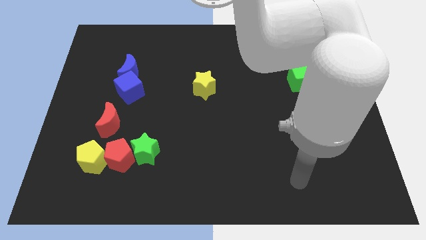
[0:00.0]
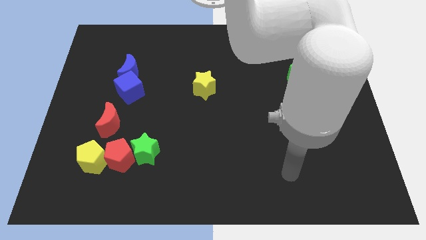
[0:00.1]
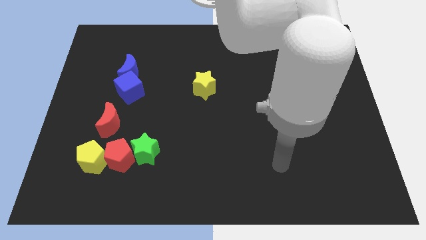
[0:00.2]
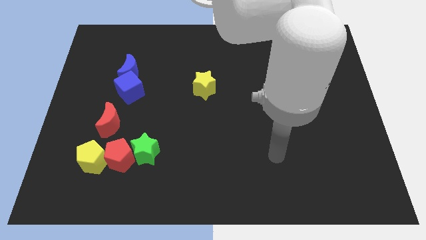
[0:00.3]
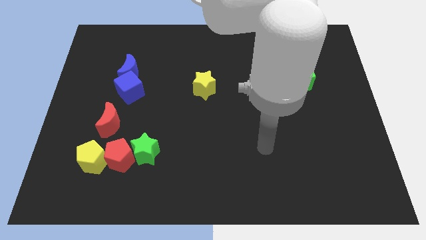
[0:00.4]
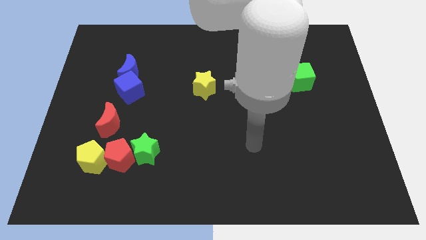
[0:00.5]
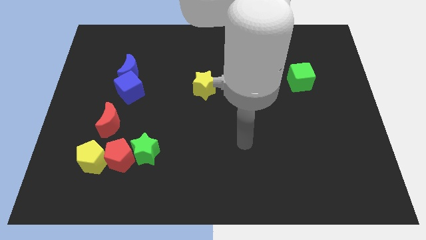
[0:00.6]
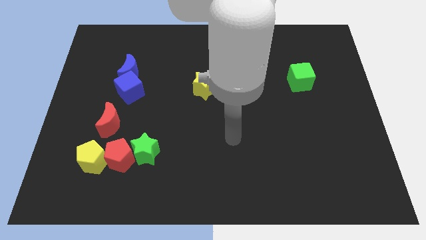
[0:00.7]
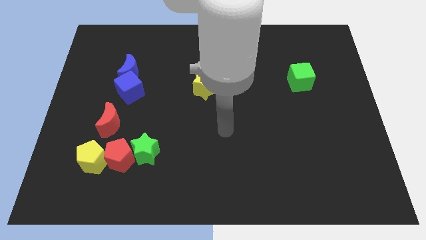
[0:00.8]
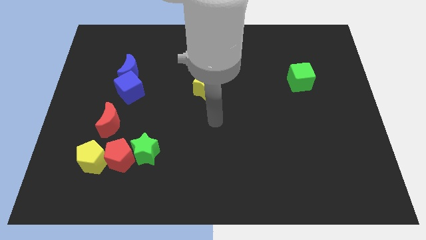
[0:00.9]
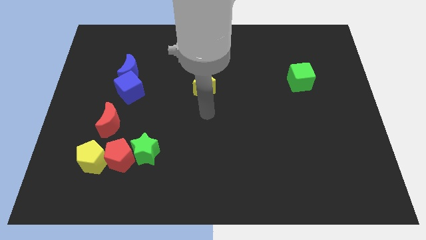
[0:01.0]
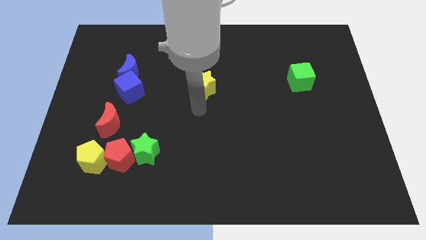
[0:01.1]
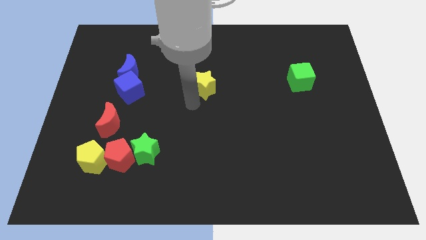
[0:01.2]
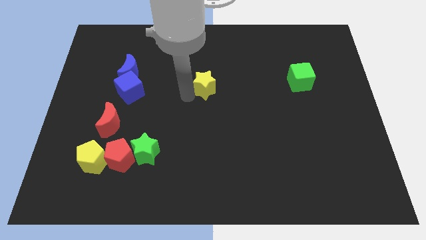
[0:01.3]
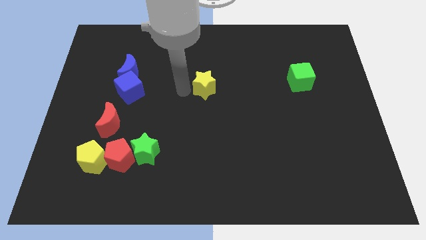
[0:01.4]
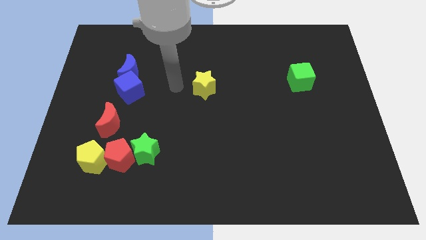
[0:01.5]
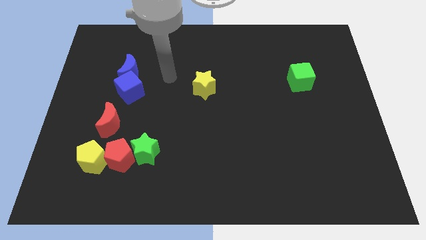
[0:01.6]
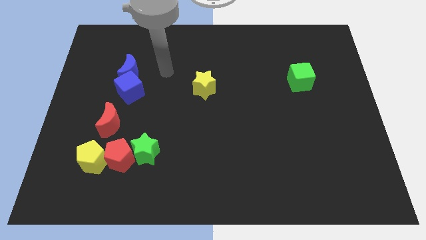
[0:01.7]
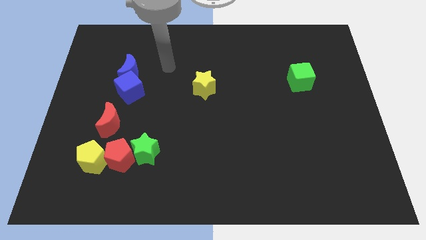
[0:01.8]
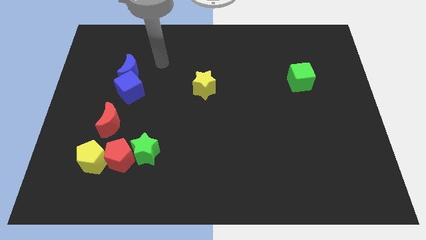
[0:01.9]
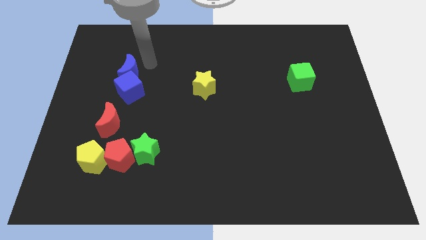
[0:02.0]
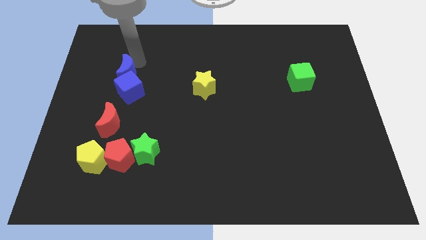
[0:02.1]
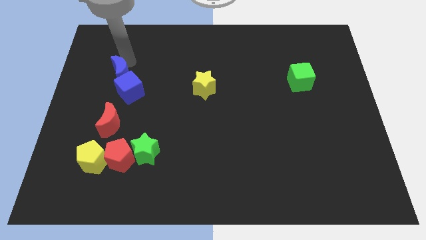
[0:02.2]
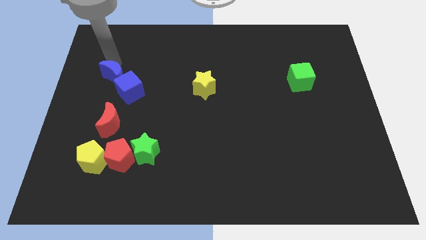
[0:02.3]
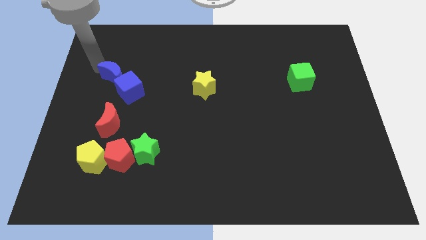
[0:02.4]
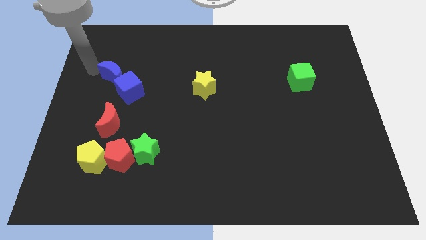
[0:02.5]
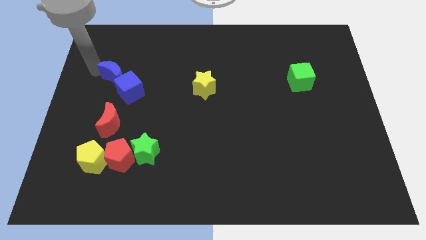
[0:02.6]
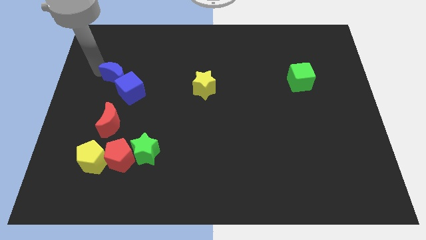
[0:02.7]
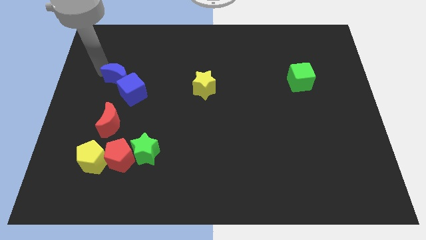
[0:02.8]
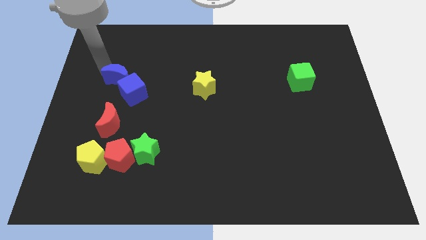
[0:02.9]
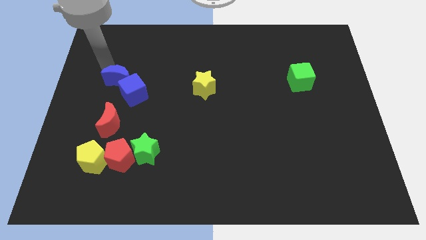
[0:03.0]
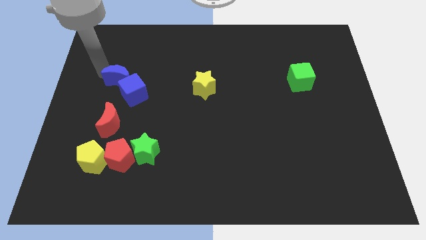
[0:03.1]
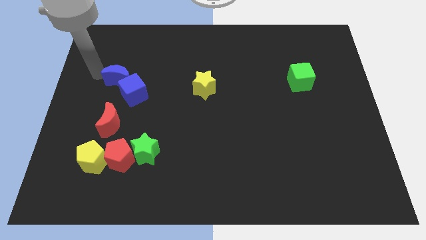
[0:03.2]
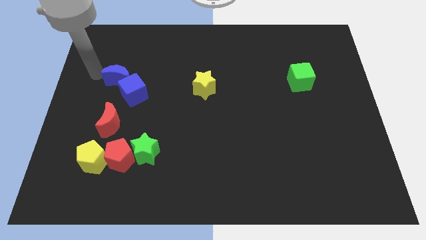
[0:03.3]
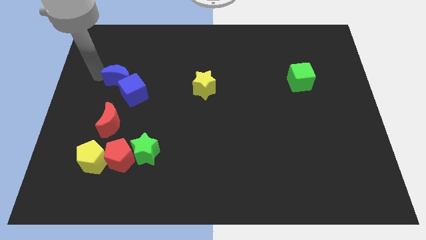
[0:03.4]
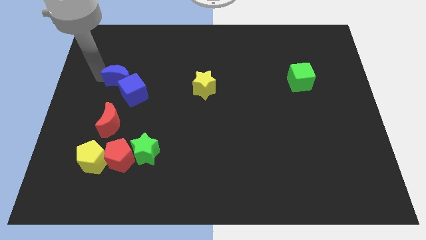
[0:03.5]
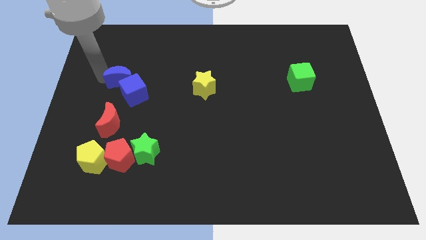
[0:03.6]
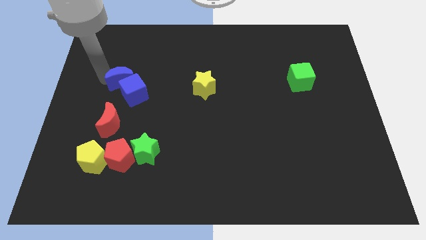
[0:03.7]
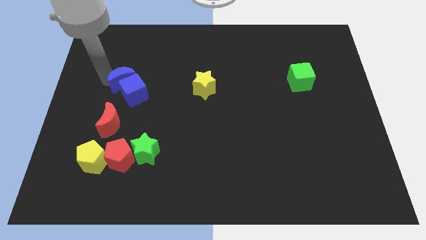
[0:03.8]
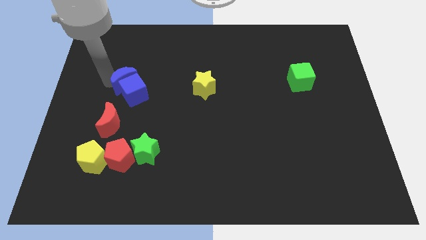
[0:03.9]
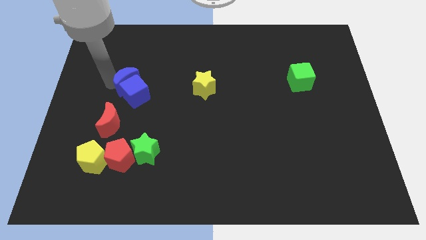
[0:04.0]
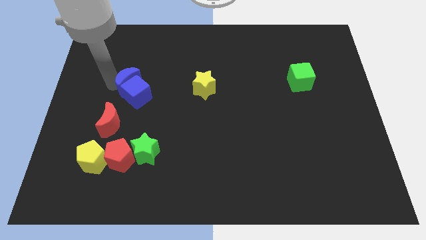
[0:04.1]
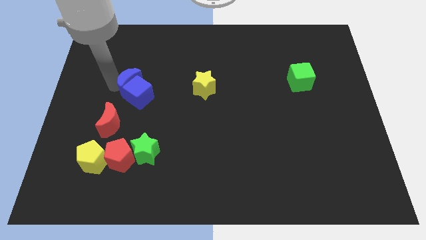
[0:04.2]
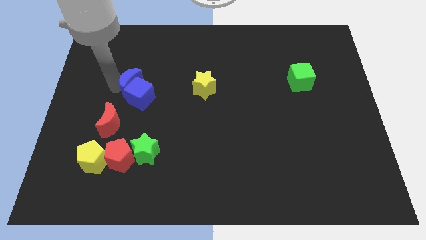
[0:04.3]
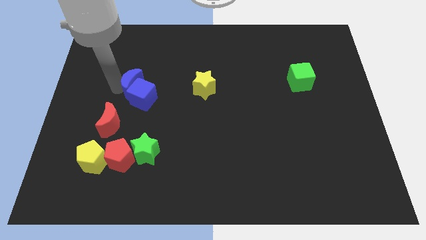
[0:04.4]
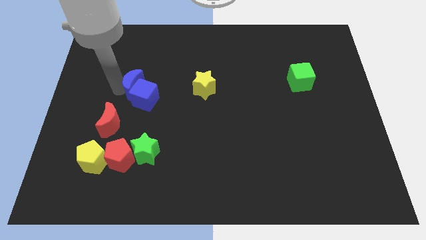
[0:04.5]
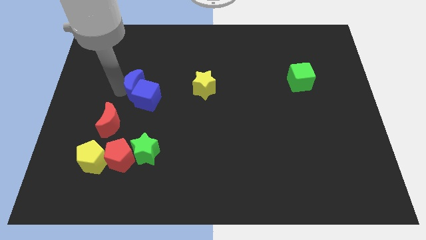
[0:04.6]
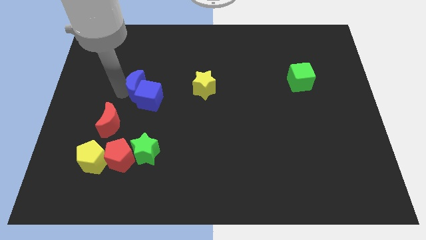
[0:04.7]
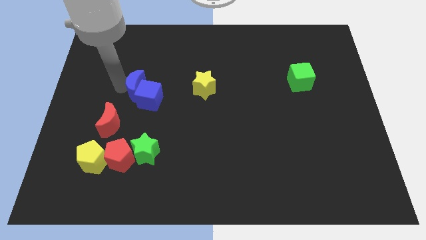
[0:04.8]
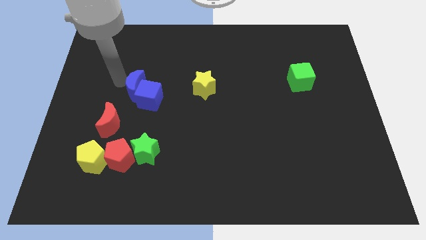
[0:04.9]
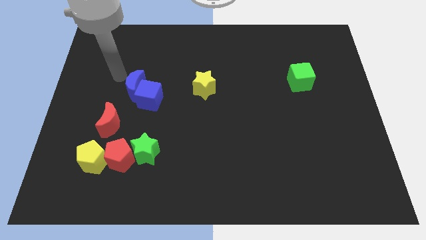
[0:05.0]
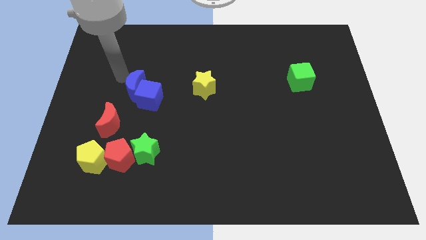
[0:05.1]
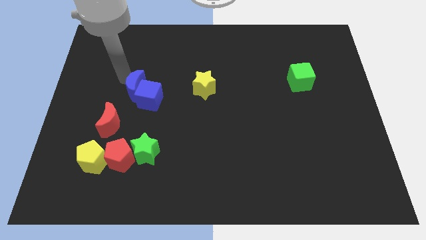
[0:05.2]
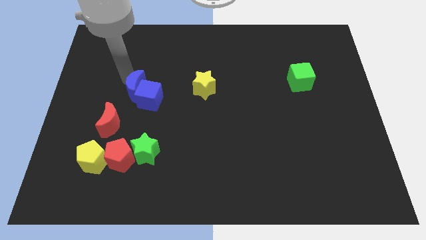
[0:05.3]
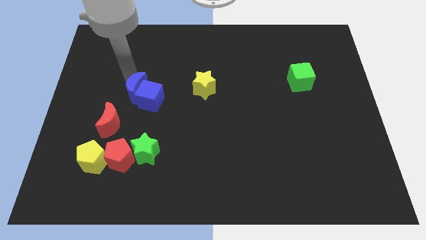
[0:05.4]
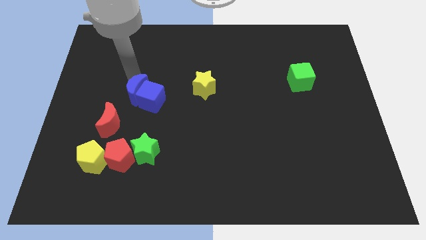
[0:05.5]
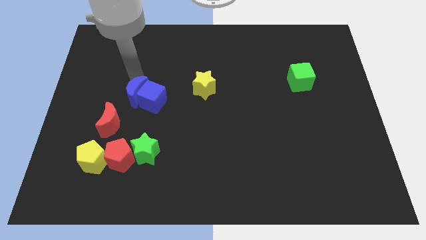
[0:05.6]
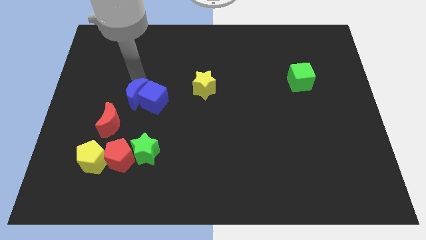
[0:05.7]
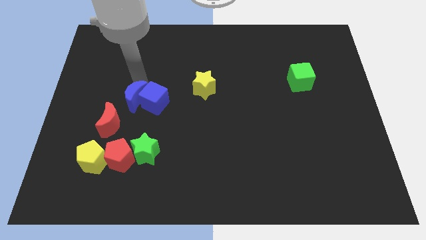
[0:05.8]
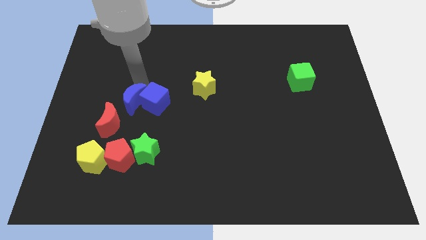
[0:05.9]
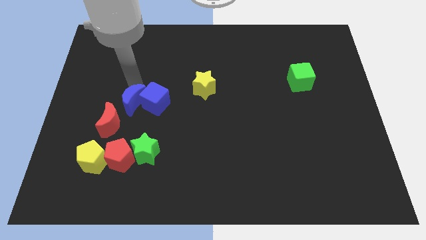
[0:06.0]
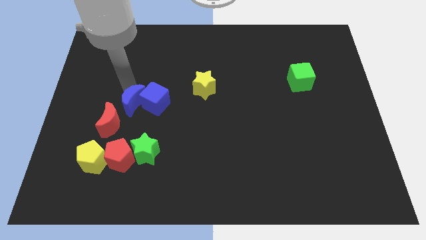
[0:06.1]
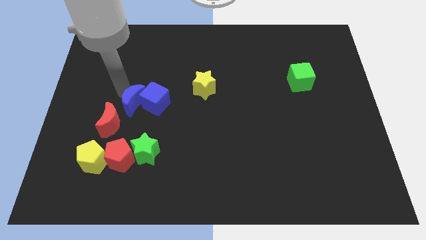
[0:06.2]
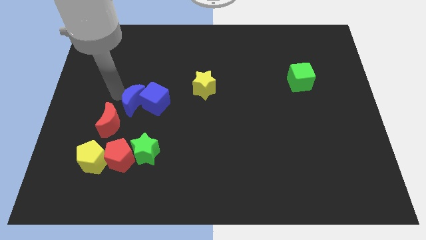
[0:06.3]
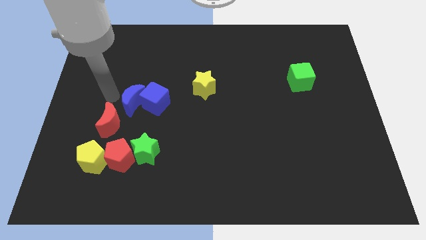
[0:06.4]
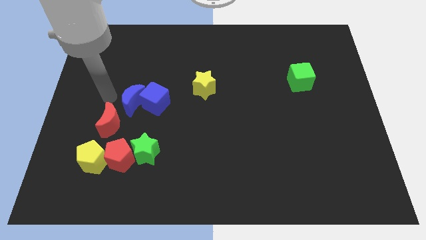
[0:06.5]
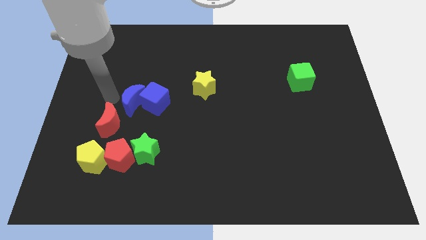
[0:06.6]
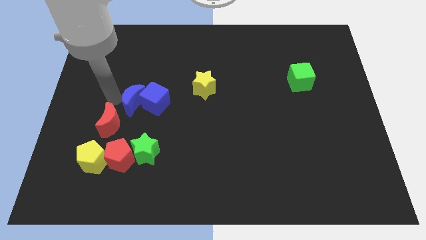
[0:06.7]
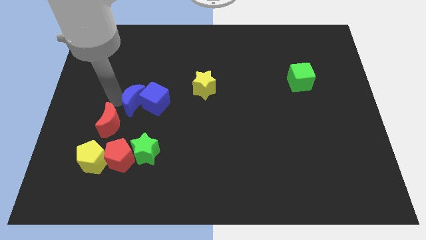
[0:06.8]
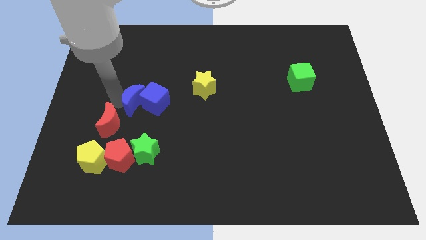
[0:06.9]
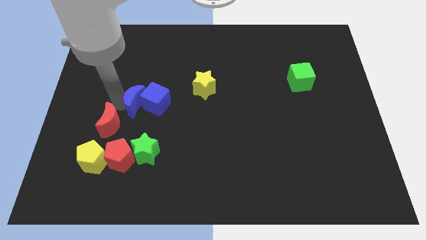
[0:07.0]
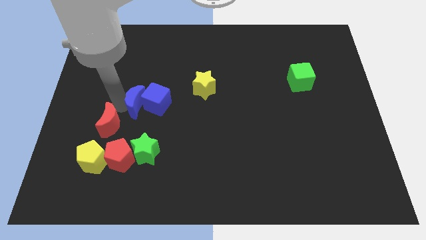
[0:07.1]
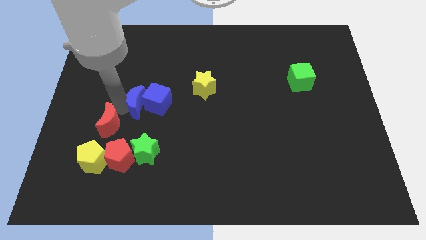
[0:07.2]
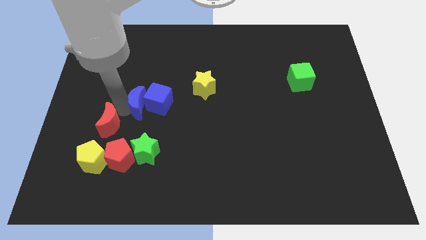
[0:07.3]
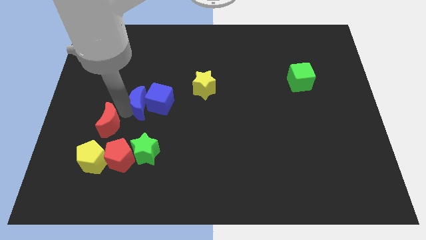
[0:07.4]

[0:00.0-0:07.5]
slide the blue moon to the right of the red moon
